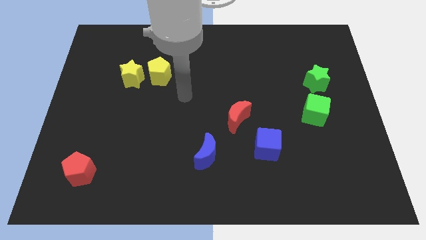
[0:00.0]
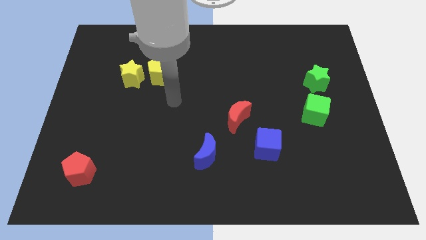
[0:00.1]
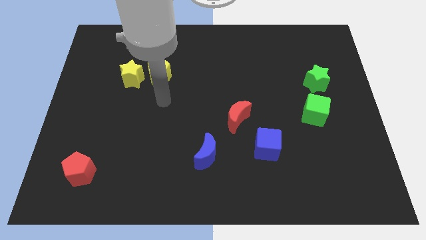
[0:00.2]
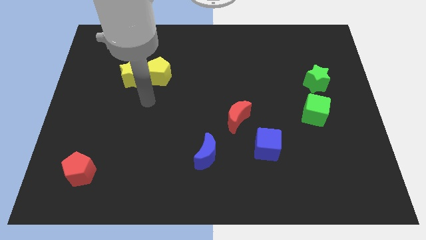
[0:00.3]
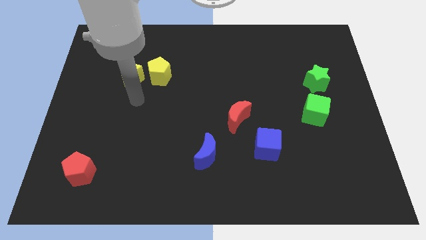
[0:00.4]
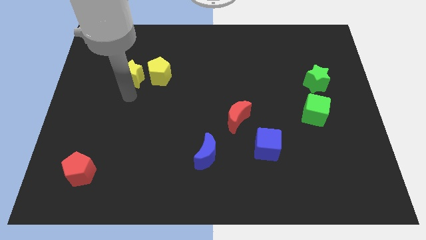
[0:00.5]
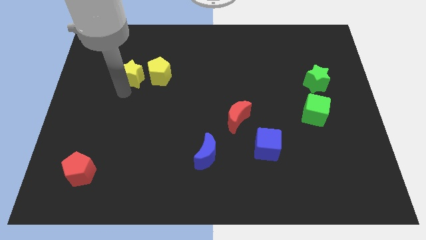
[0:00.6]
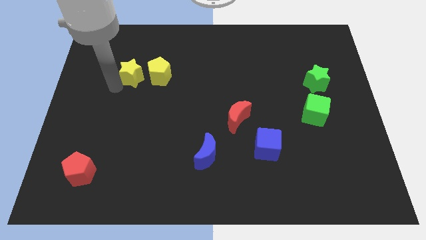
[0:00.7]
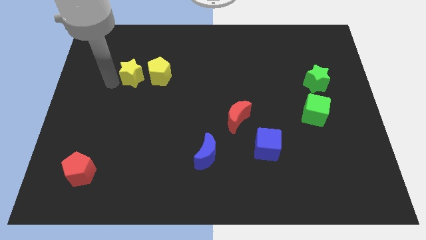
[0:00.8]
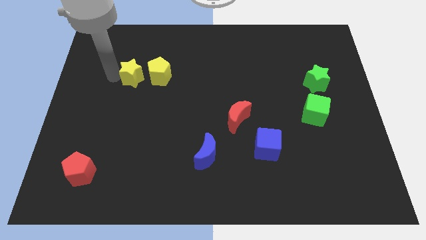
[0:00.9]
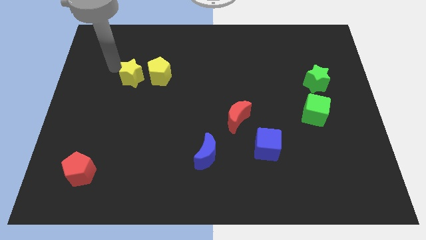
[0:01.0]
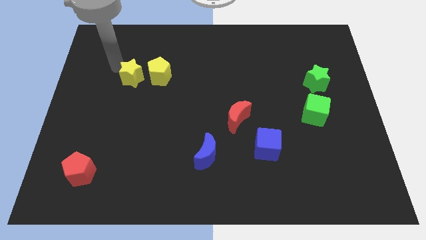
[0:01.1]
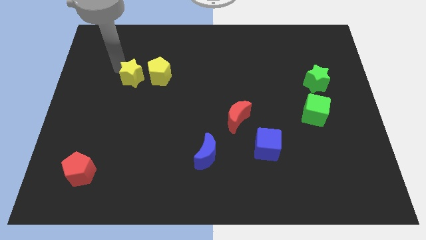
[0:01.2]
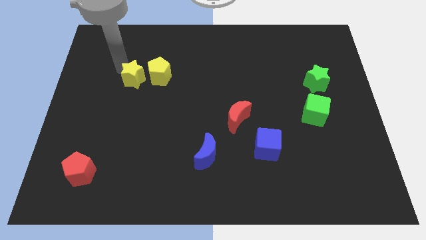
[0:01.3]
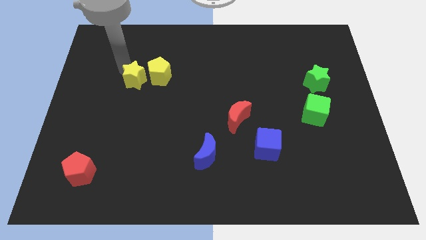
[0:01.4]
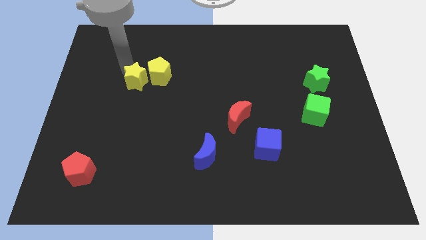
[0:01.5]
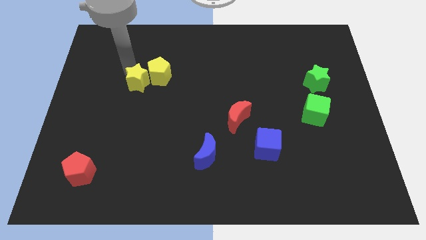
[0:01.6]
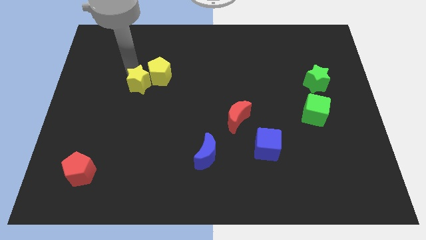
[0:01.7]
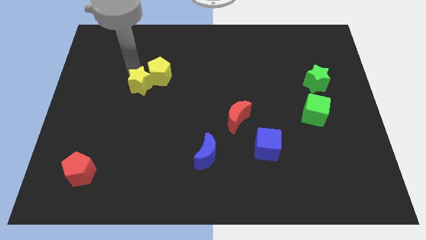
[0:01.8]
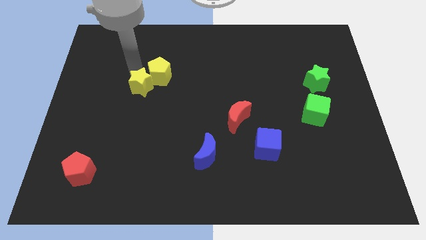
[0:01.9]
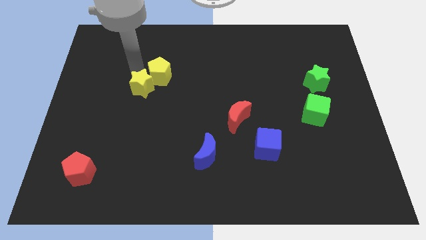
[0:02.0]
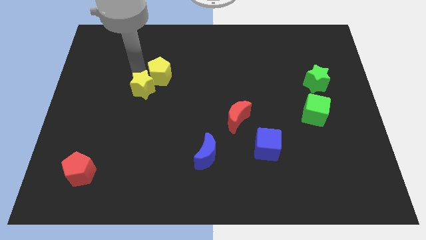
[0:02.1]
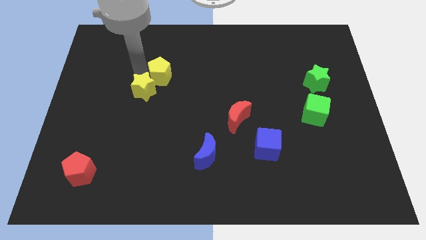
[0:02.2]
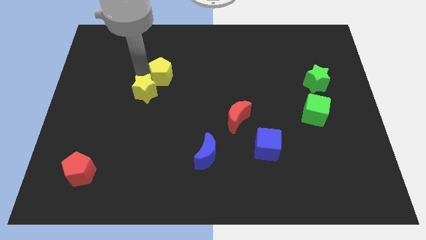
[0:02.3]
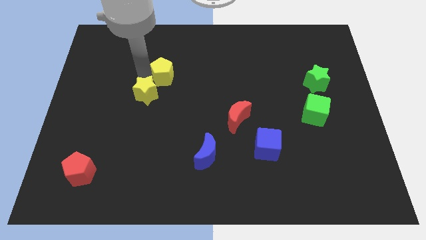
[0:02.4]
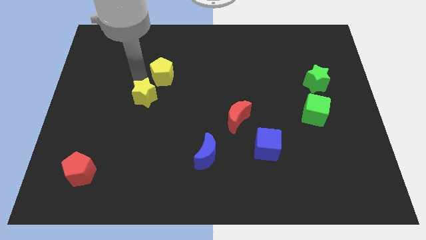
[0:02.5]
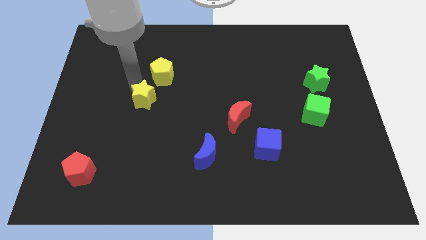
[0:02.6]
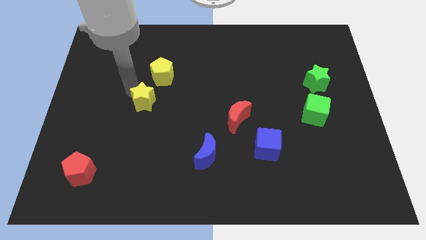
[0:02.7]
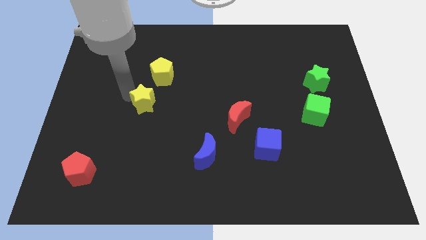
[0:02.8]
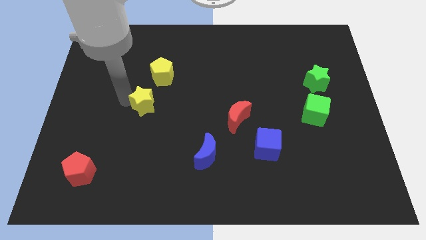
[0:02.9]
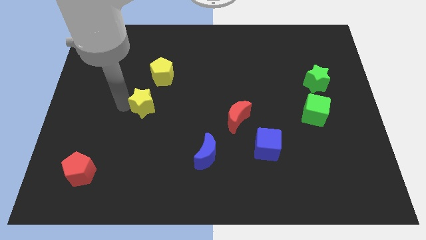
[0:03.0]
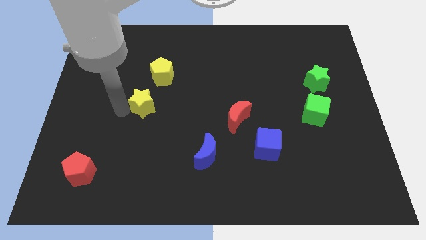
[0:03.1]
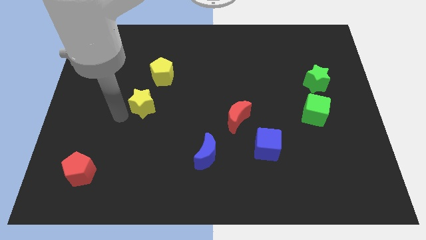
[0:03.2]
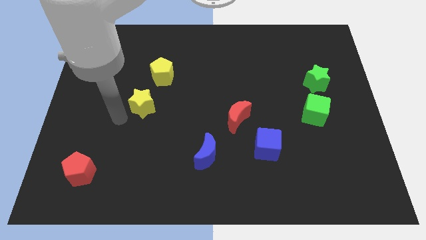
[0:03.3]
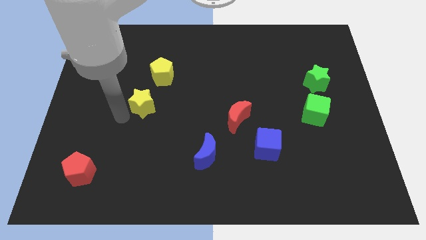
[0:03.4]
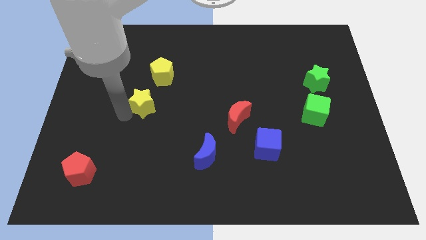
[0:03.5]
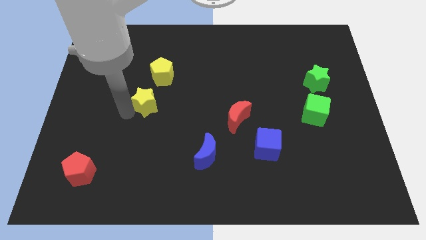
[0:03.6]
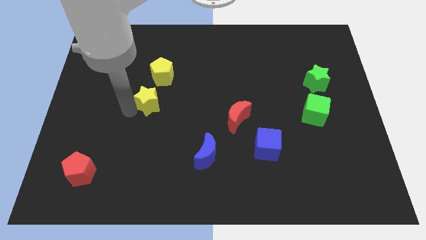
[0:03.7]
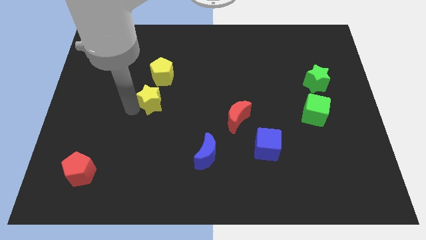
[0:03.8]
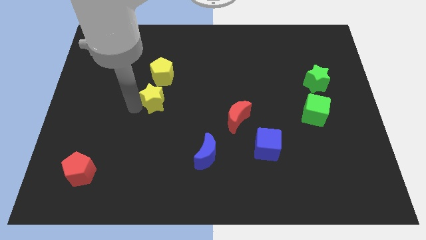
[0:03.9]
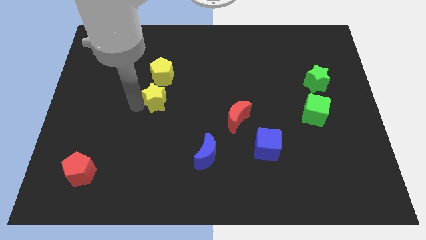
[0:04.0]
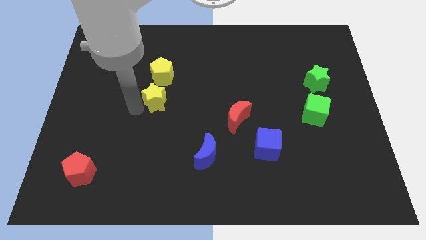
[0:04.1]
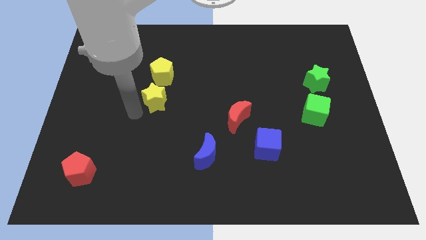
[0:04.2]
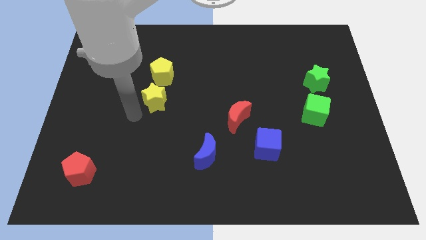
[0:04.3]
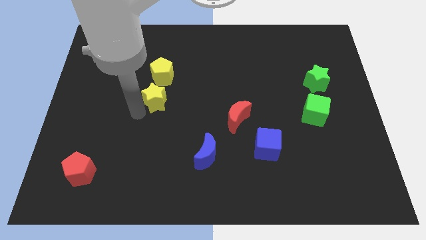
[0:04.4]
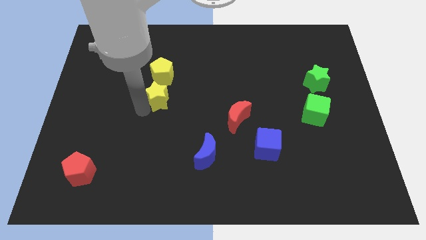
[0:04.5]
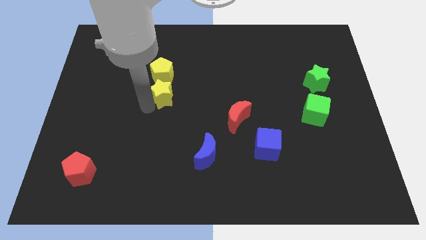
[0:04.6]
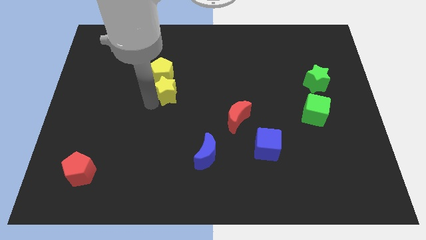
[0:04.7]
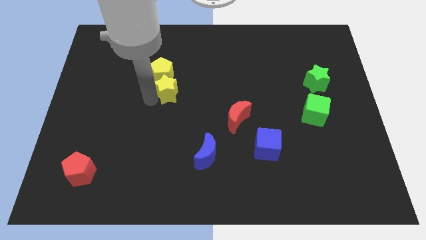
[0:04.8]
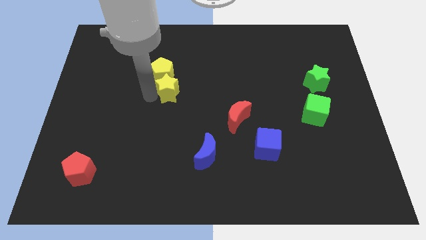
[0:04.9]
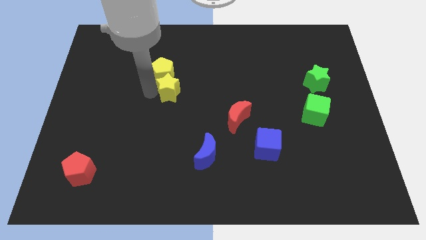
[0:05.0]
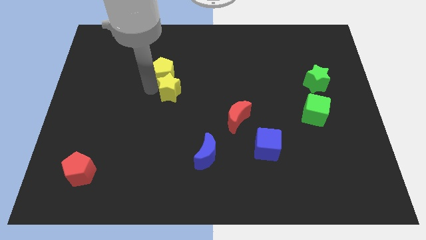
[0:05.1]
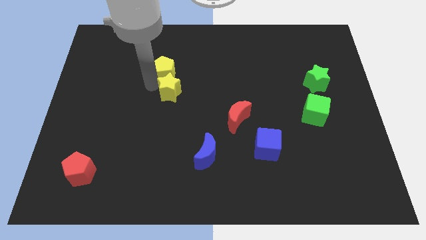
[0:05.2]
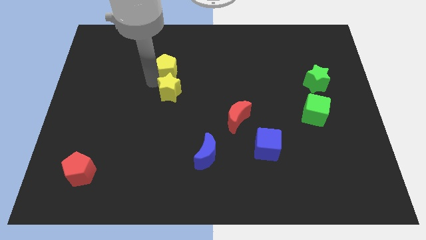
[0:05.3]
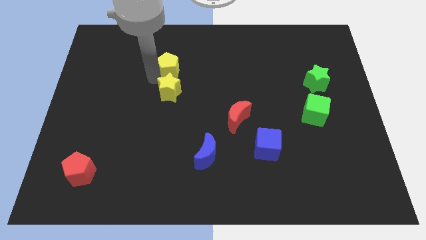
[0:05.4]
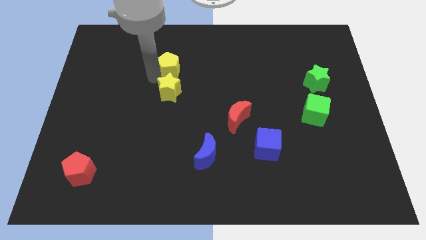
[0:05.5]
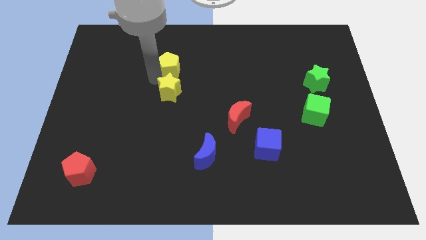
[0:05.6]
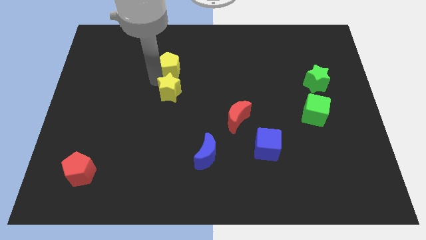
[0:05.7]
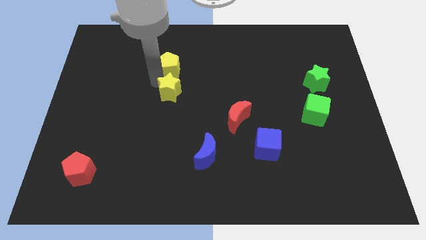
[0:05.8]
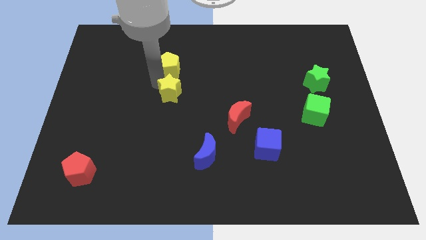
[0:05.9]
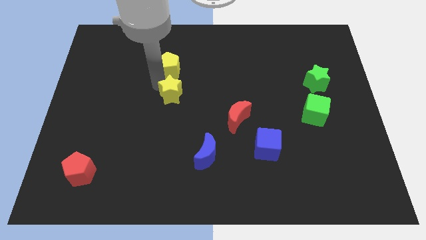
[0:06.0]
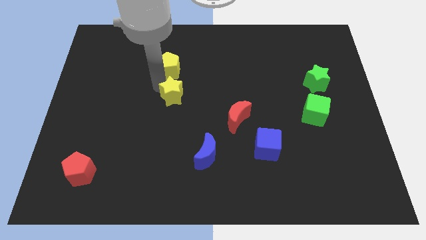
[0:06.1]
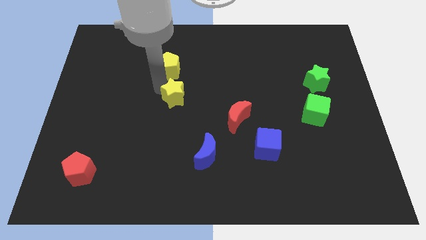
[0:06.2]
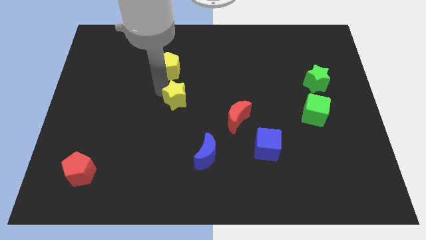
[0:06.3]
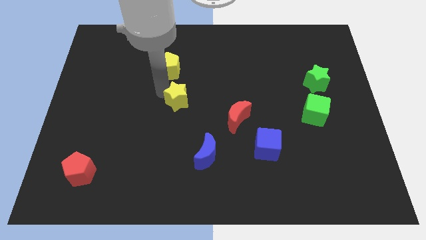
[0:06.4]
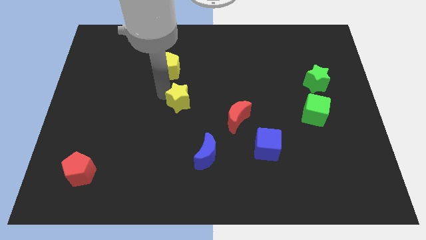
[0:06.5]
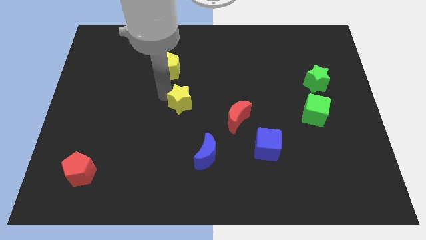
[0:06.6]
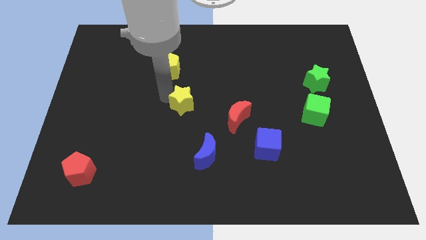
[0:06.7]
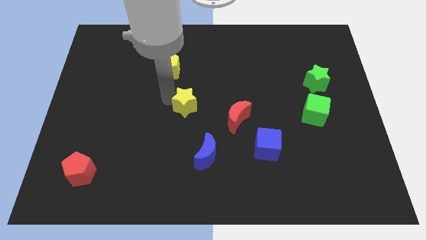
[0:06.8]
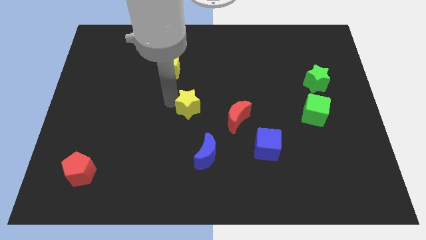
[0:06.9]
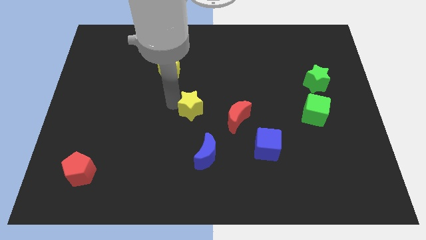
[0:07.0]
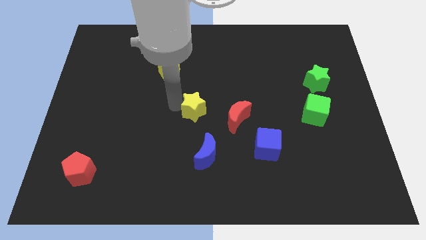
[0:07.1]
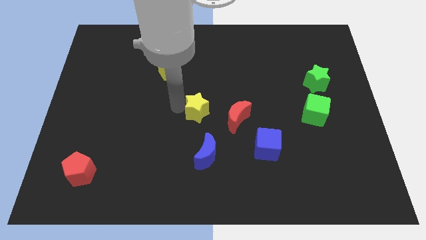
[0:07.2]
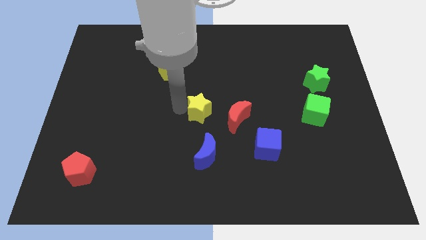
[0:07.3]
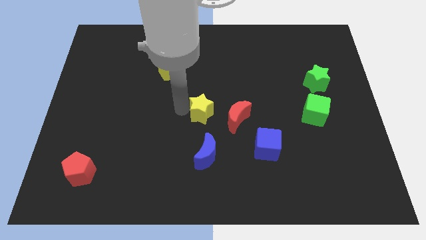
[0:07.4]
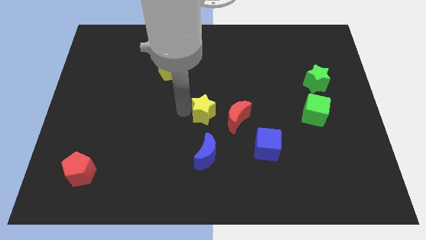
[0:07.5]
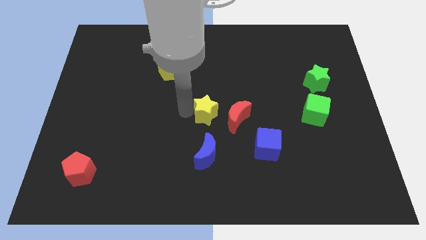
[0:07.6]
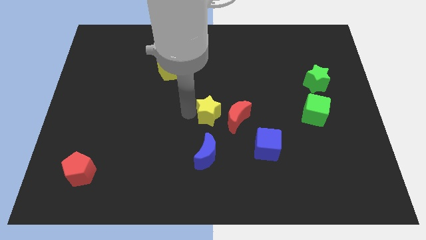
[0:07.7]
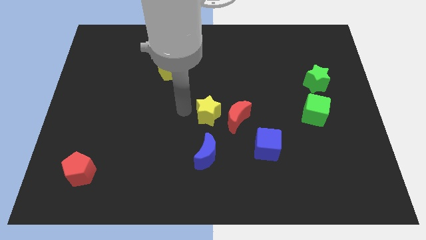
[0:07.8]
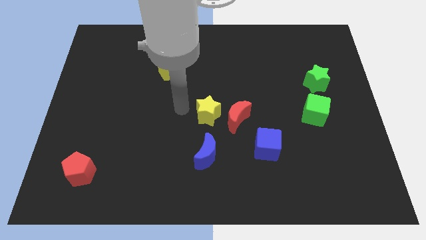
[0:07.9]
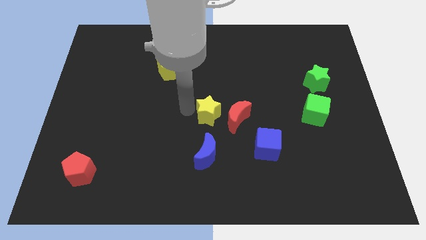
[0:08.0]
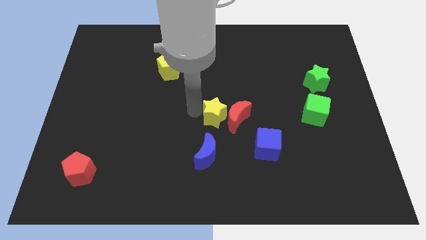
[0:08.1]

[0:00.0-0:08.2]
put the yellow star to the red moon
